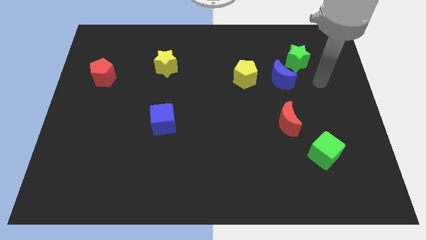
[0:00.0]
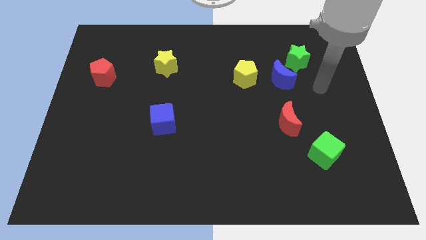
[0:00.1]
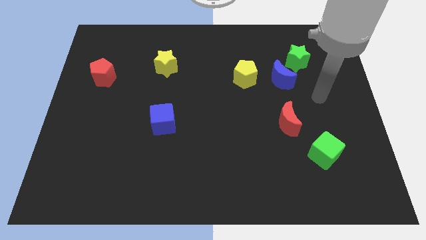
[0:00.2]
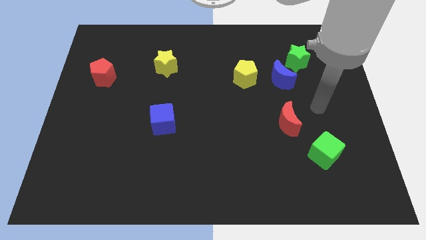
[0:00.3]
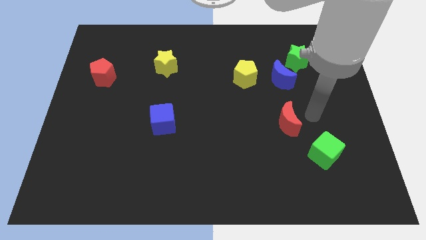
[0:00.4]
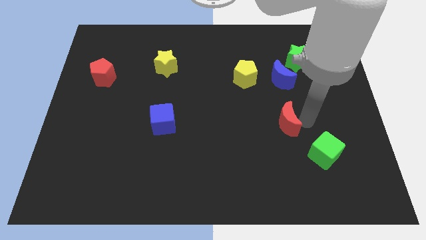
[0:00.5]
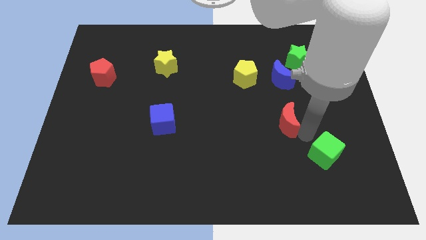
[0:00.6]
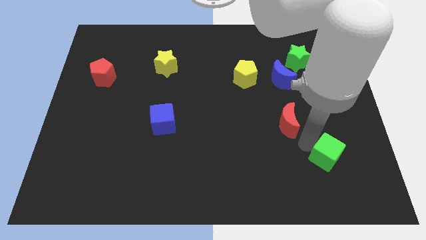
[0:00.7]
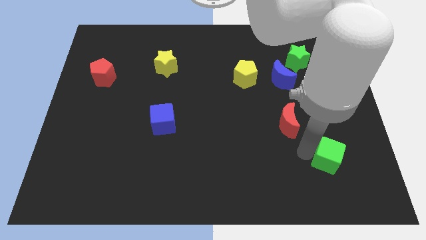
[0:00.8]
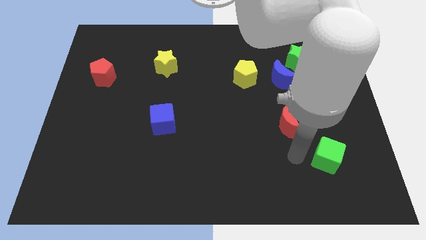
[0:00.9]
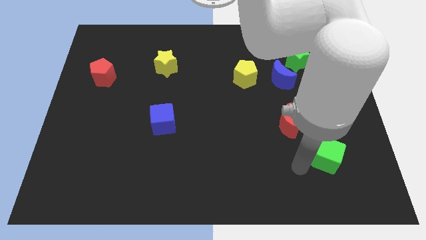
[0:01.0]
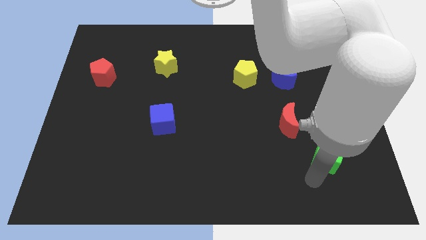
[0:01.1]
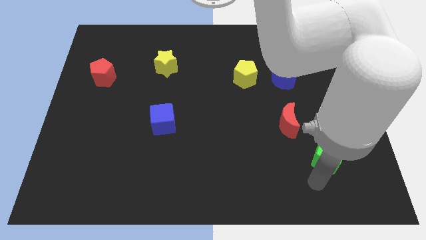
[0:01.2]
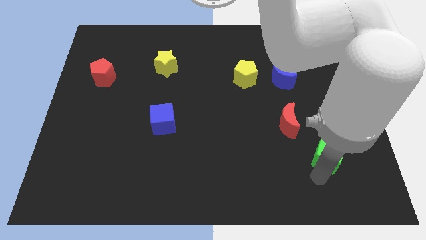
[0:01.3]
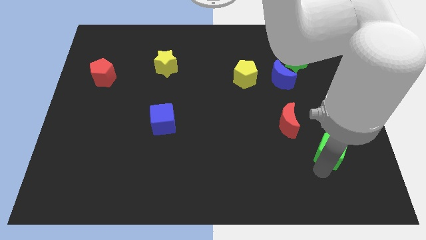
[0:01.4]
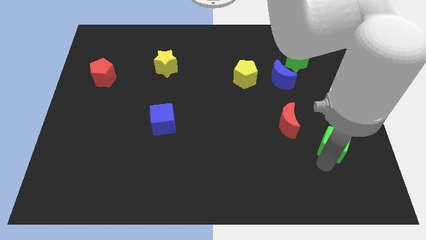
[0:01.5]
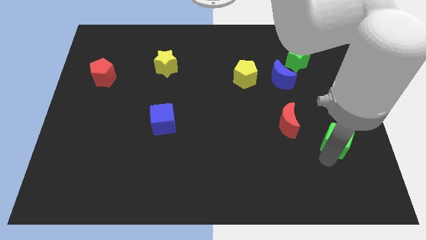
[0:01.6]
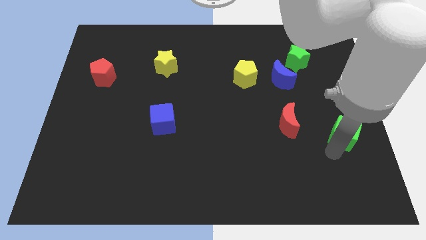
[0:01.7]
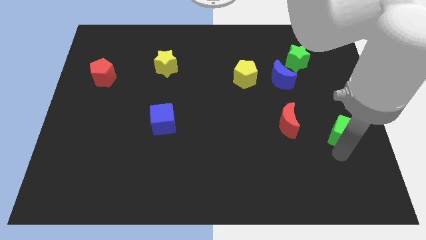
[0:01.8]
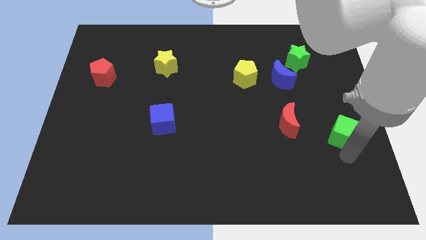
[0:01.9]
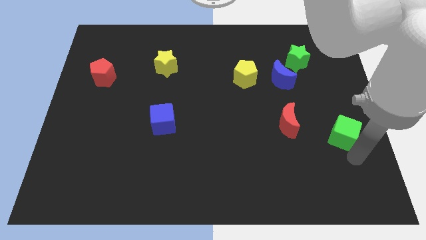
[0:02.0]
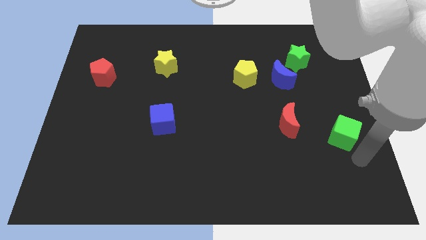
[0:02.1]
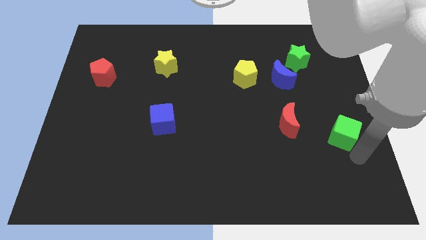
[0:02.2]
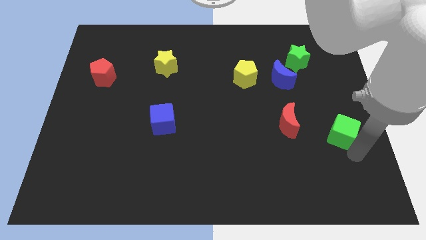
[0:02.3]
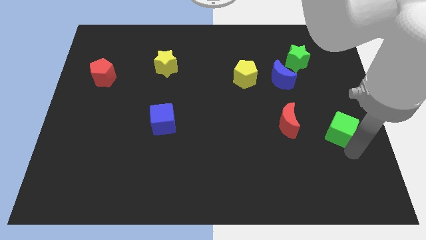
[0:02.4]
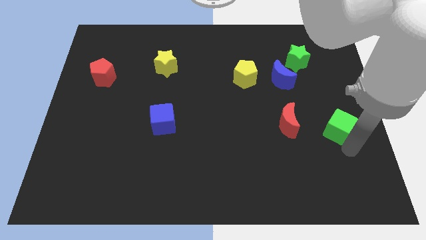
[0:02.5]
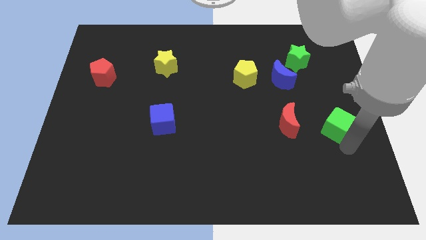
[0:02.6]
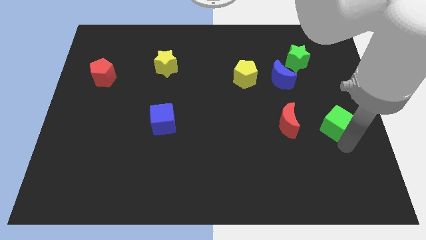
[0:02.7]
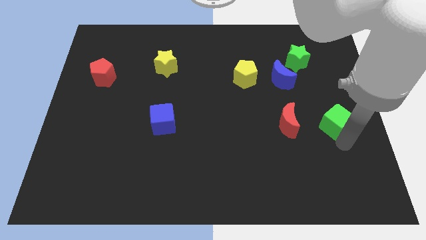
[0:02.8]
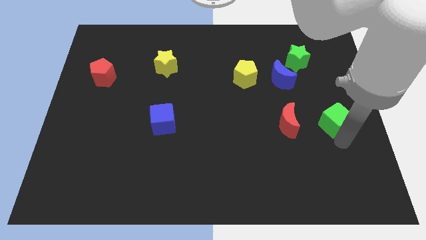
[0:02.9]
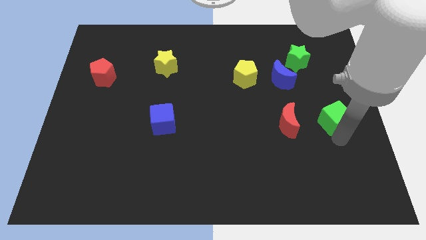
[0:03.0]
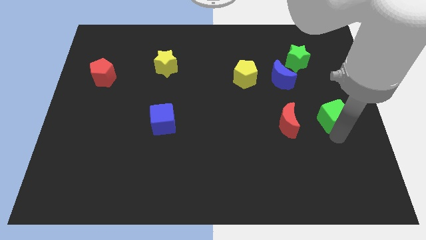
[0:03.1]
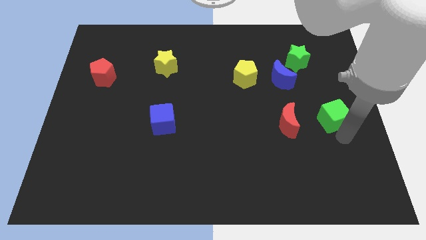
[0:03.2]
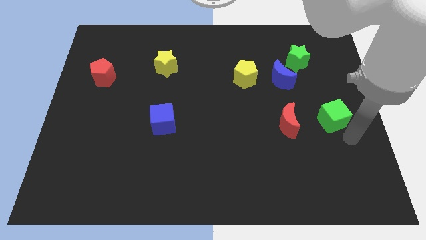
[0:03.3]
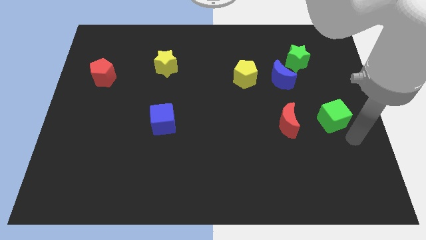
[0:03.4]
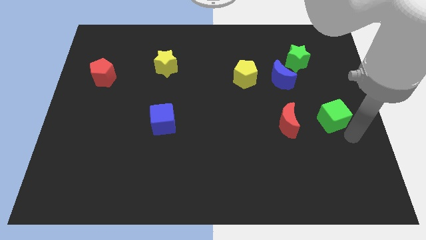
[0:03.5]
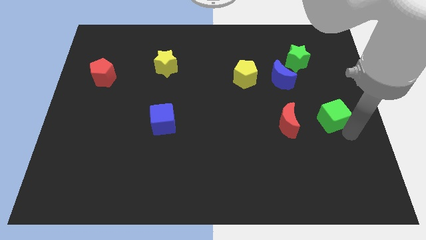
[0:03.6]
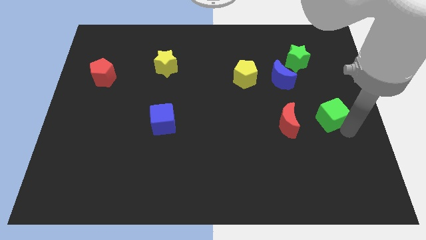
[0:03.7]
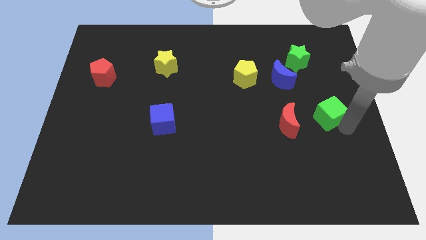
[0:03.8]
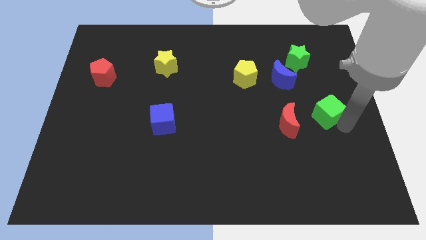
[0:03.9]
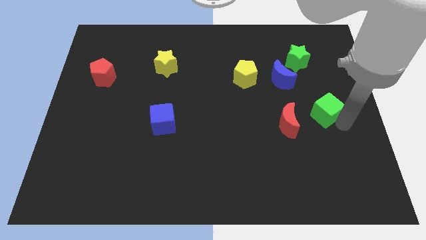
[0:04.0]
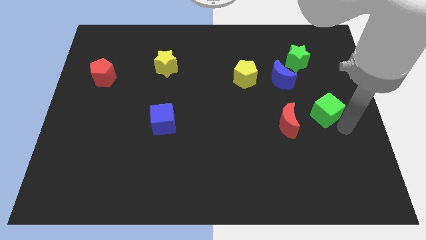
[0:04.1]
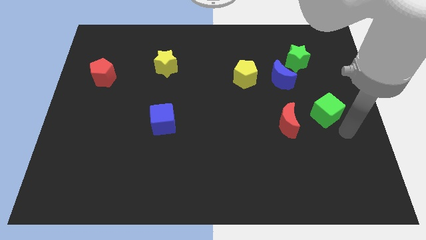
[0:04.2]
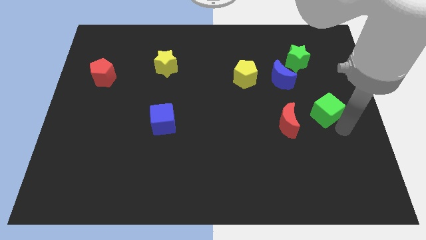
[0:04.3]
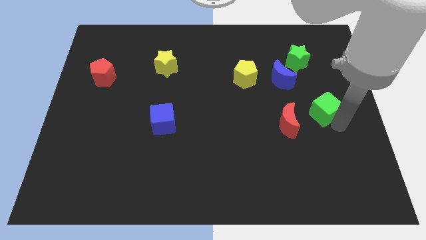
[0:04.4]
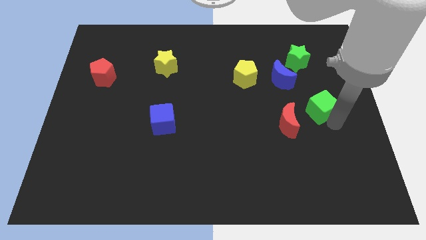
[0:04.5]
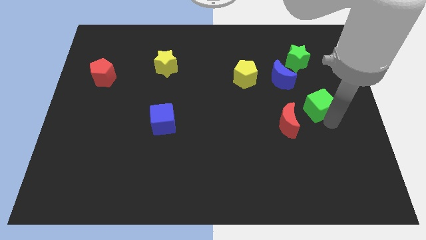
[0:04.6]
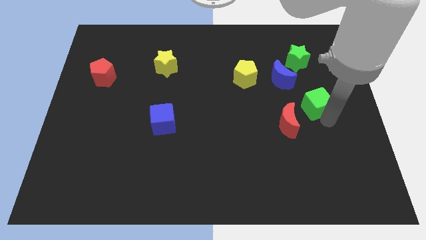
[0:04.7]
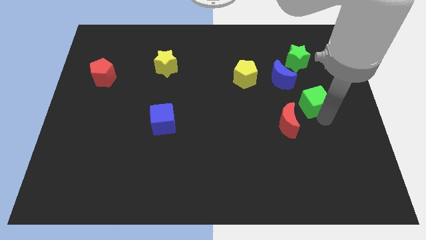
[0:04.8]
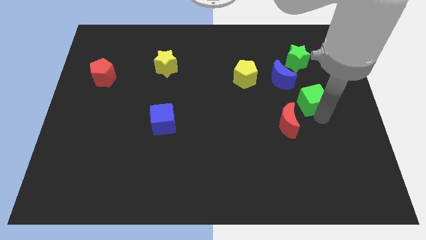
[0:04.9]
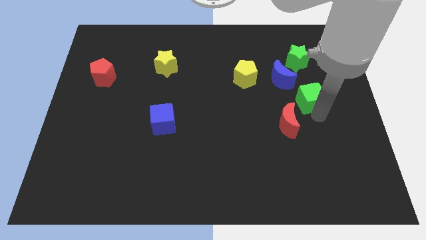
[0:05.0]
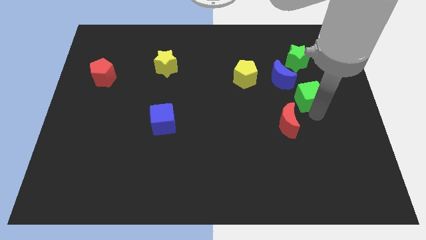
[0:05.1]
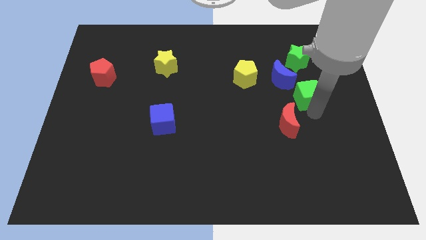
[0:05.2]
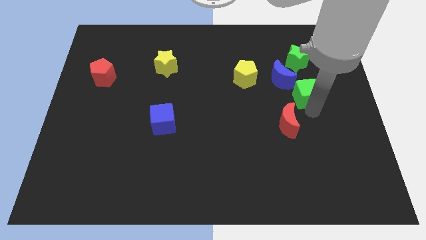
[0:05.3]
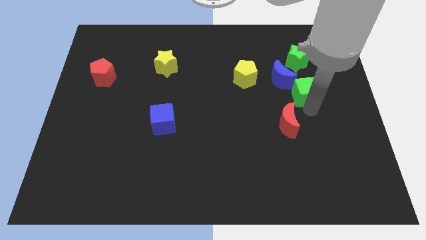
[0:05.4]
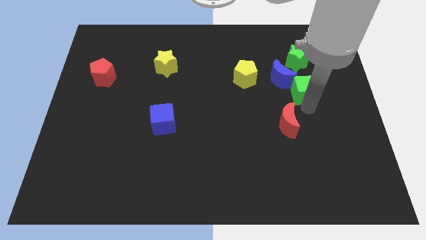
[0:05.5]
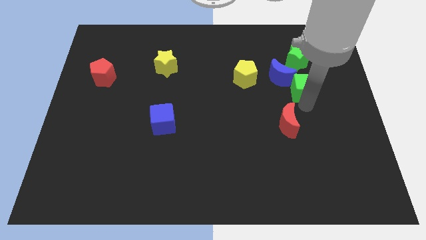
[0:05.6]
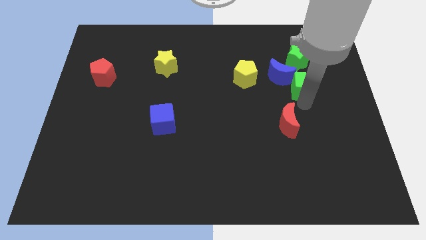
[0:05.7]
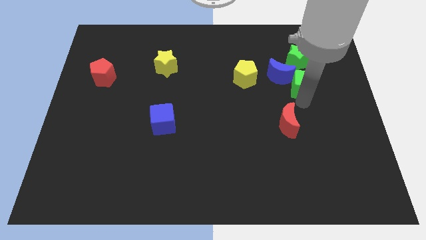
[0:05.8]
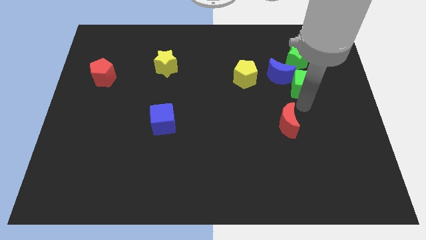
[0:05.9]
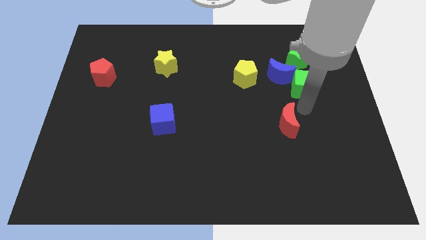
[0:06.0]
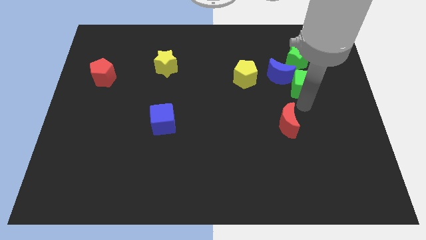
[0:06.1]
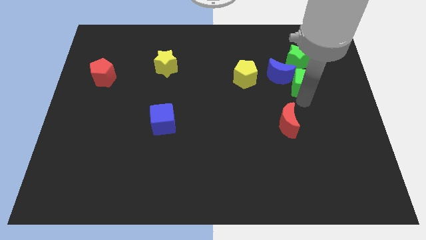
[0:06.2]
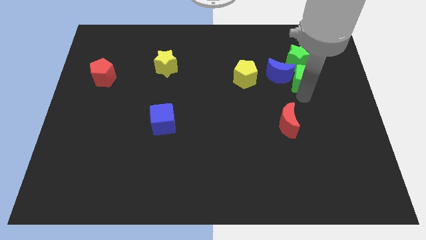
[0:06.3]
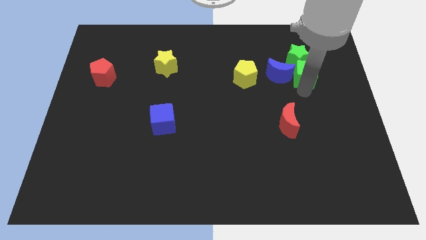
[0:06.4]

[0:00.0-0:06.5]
slide the green cube next to the green star

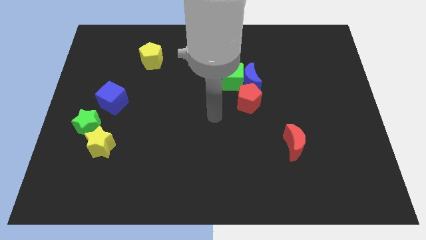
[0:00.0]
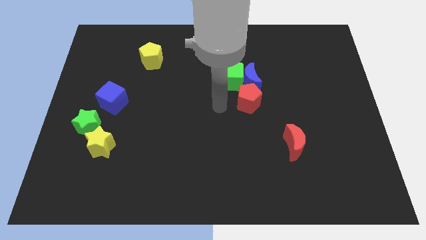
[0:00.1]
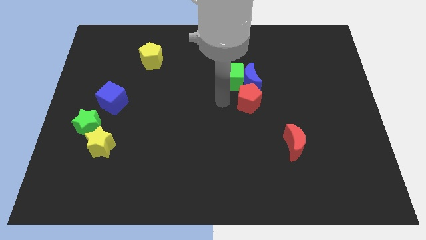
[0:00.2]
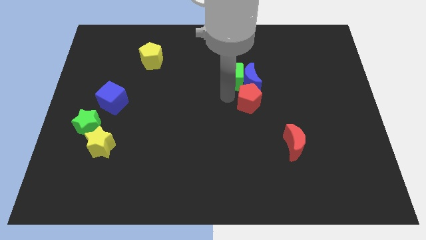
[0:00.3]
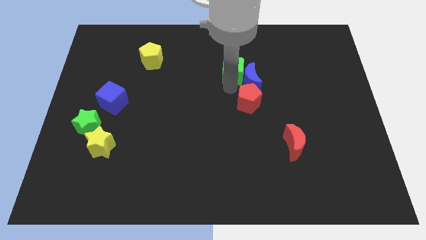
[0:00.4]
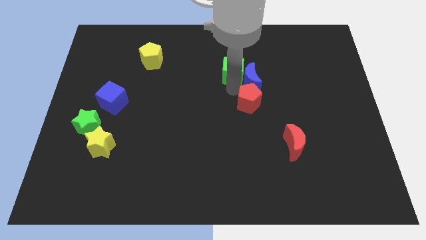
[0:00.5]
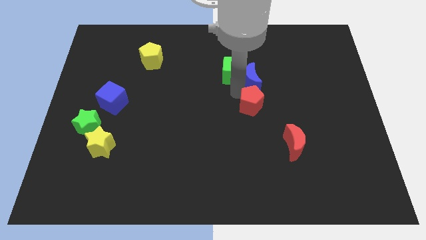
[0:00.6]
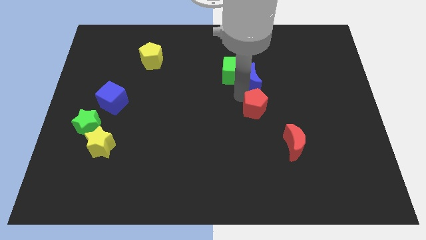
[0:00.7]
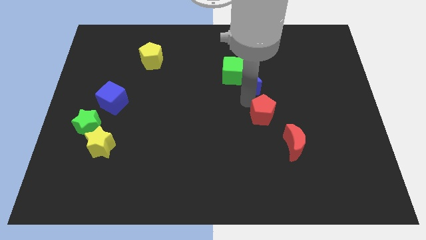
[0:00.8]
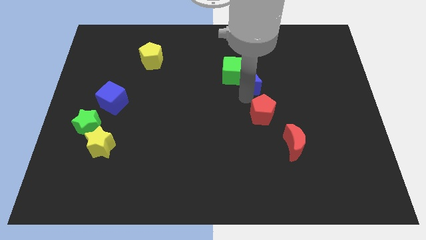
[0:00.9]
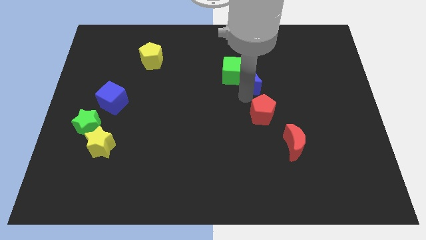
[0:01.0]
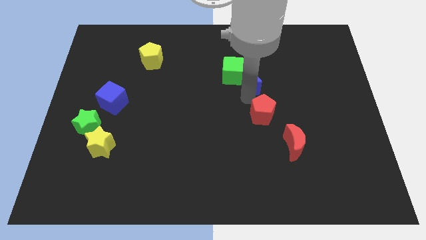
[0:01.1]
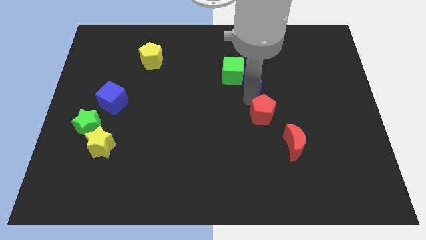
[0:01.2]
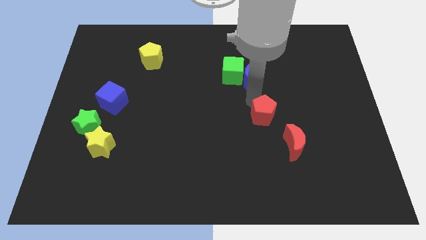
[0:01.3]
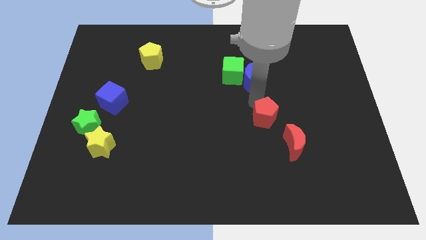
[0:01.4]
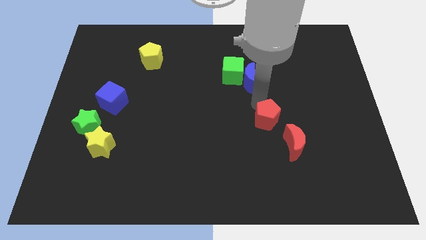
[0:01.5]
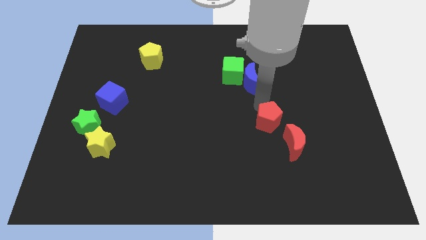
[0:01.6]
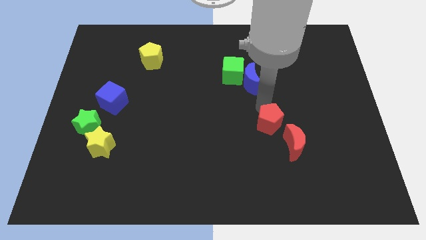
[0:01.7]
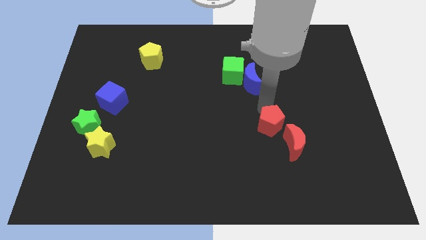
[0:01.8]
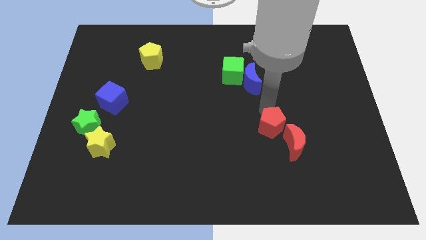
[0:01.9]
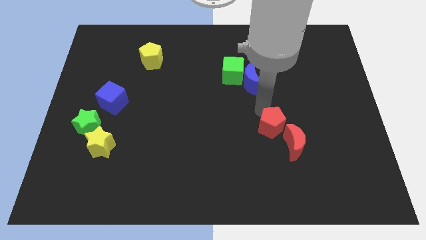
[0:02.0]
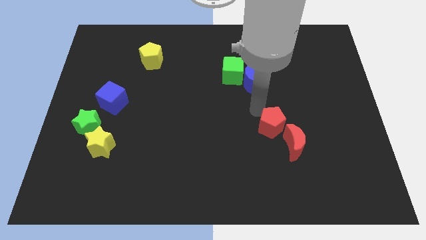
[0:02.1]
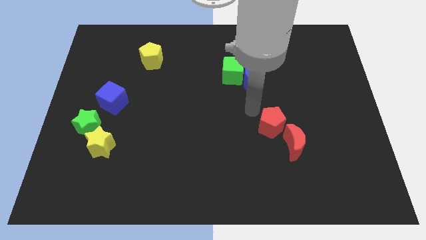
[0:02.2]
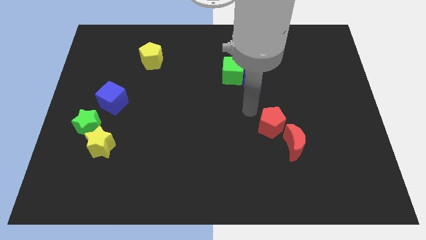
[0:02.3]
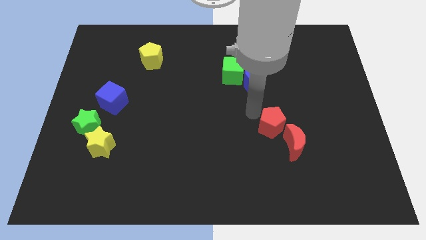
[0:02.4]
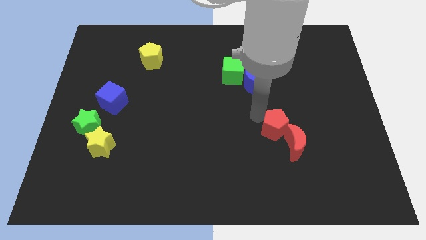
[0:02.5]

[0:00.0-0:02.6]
slide the red pentagon next to the red moon
